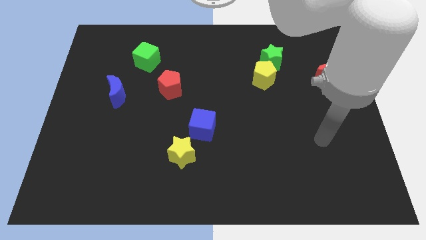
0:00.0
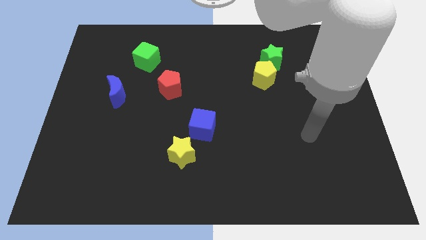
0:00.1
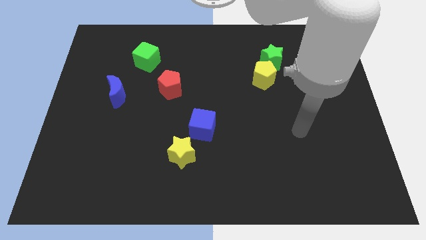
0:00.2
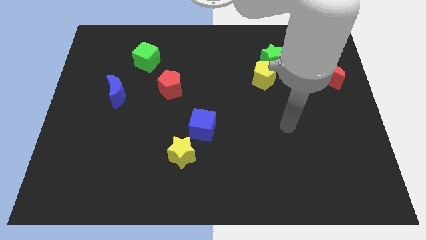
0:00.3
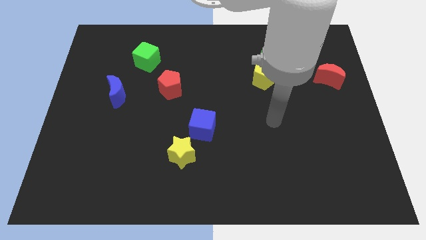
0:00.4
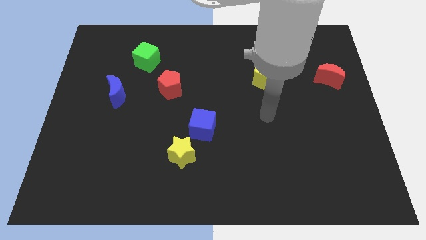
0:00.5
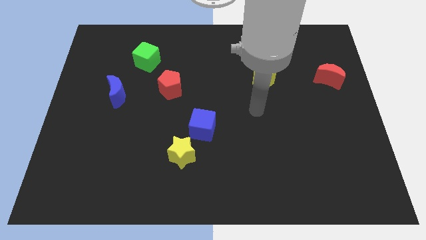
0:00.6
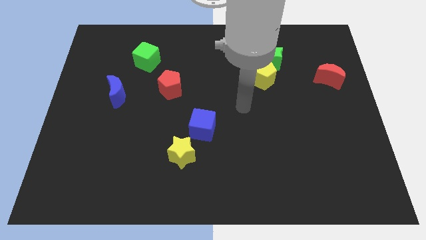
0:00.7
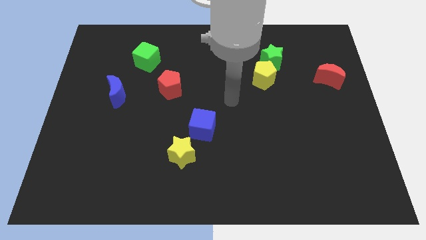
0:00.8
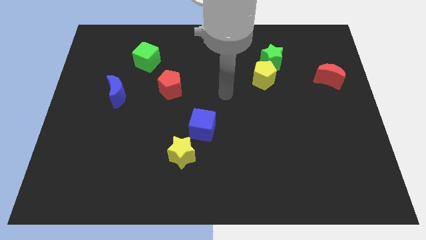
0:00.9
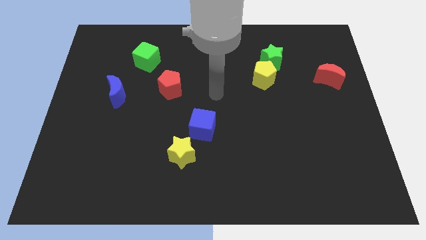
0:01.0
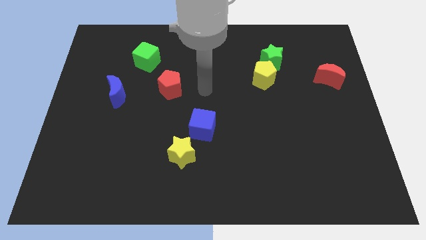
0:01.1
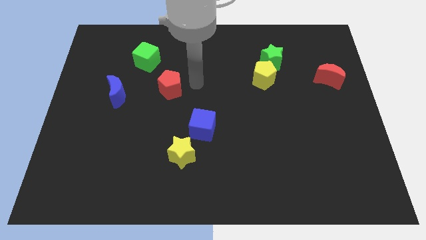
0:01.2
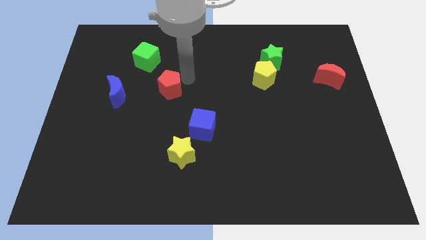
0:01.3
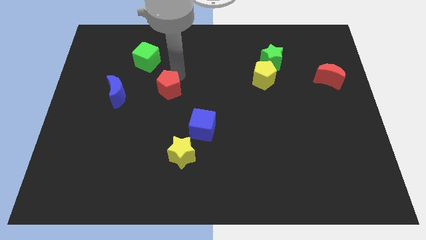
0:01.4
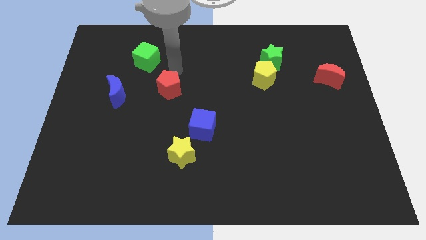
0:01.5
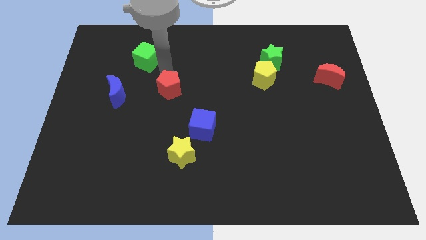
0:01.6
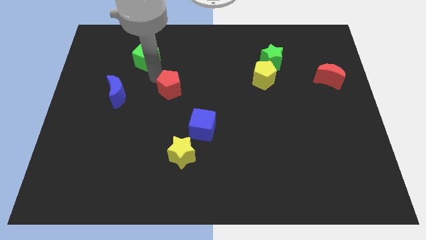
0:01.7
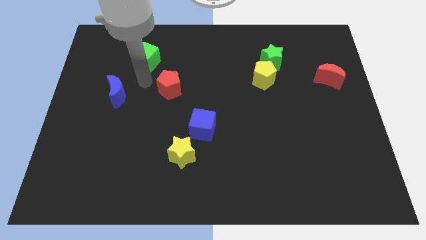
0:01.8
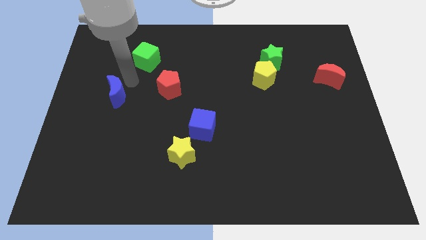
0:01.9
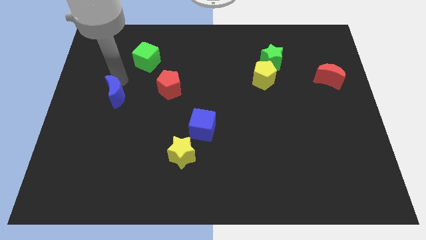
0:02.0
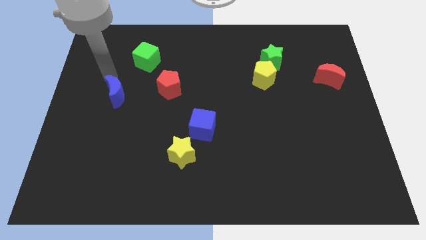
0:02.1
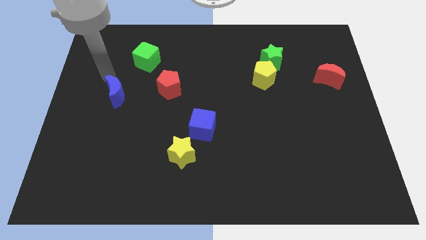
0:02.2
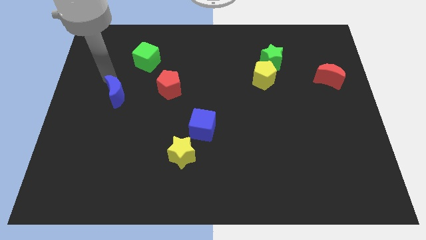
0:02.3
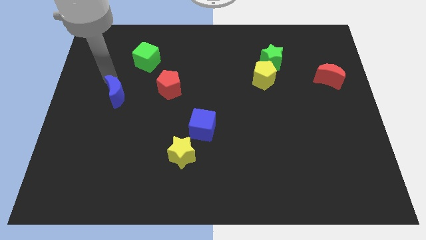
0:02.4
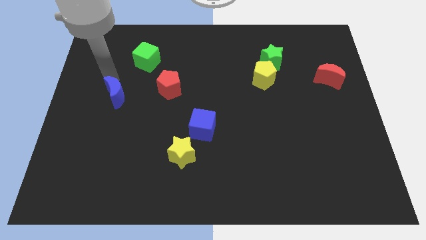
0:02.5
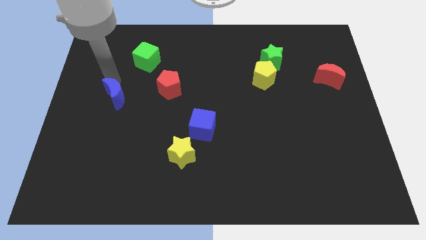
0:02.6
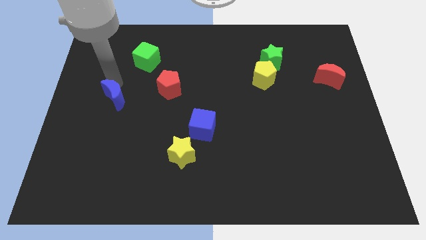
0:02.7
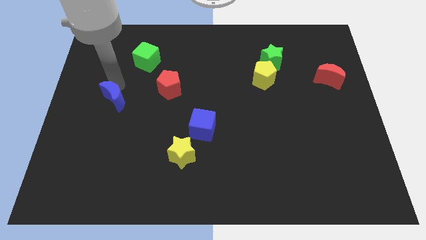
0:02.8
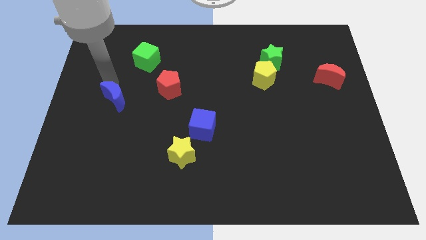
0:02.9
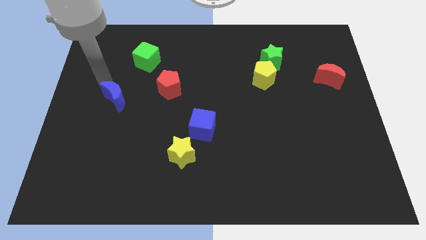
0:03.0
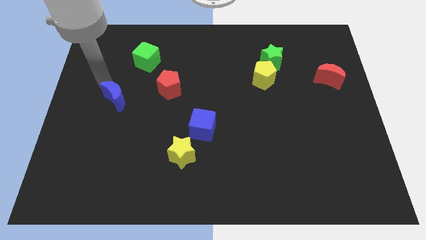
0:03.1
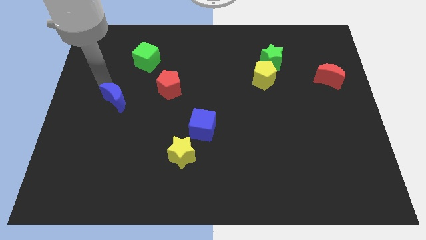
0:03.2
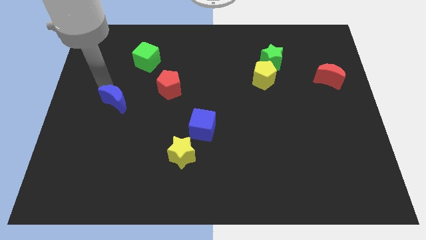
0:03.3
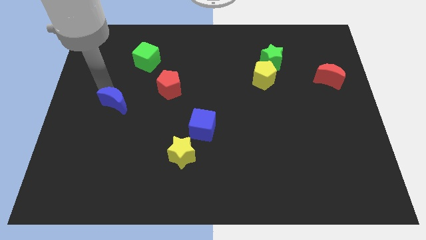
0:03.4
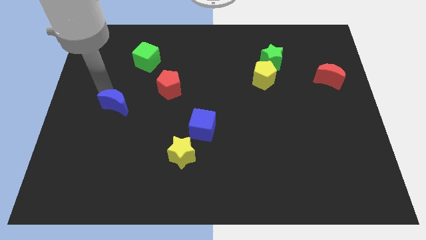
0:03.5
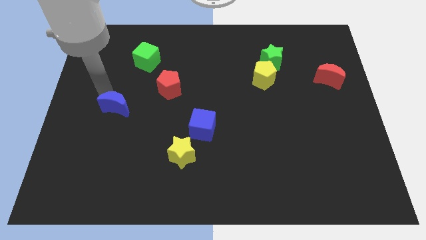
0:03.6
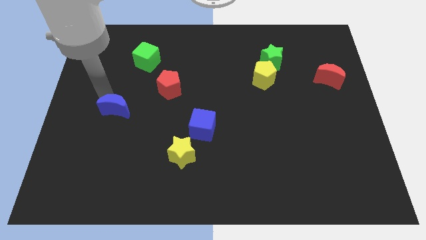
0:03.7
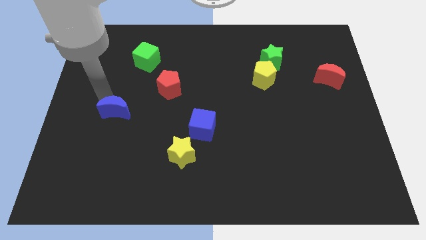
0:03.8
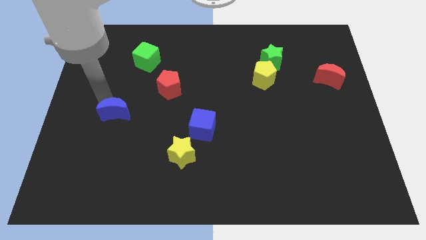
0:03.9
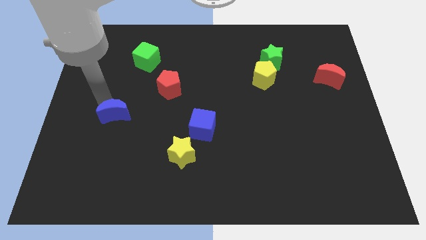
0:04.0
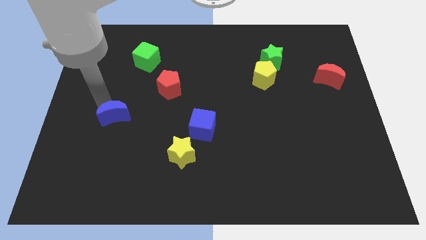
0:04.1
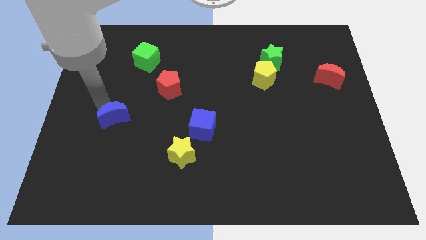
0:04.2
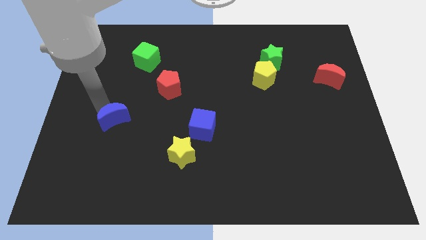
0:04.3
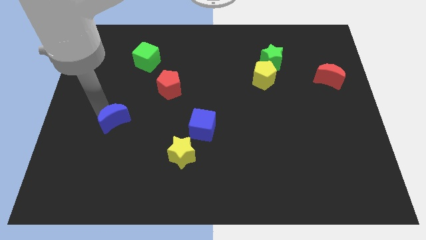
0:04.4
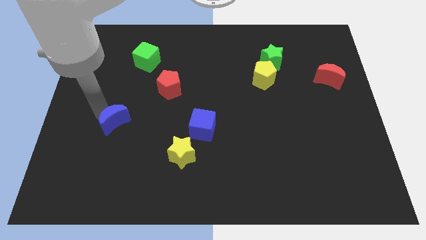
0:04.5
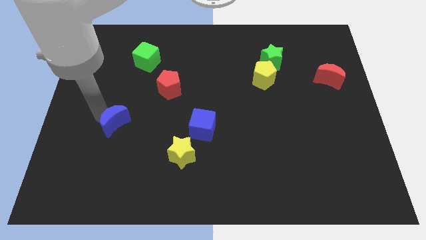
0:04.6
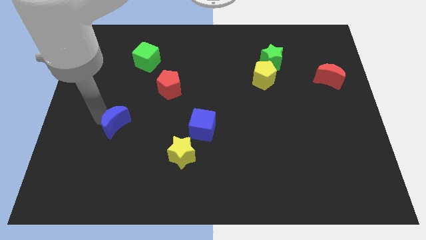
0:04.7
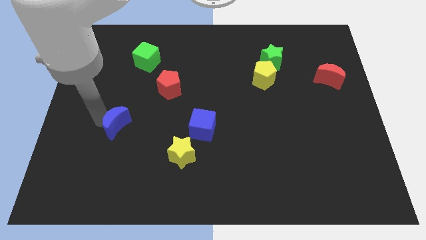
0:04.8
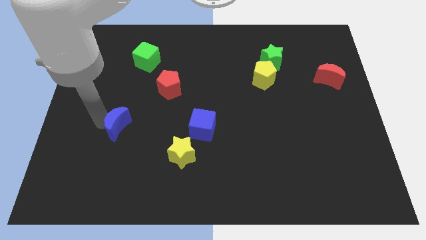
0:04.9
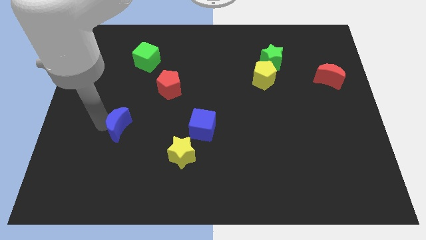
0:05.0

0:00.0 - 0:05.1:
slide the blue moon diagonally down and to the right a bit

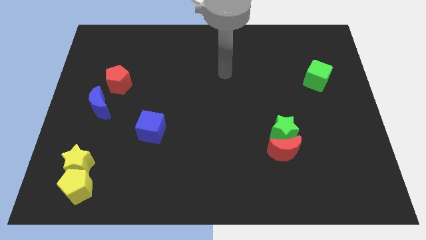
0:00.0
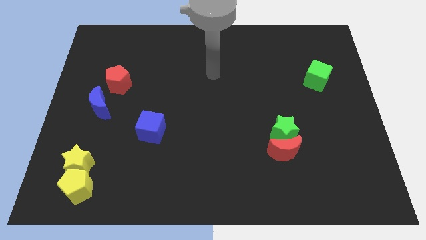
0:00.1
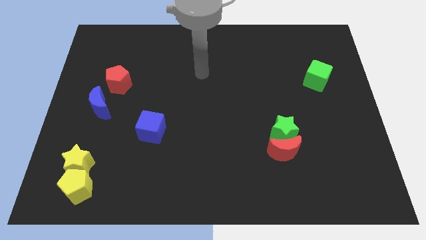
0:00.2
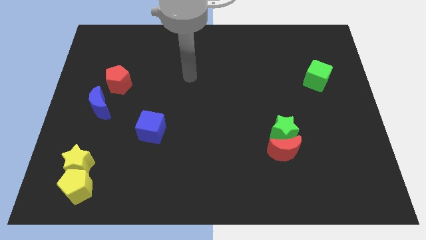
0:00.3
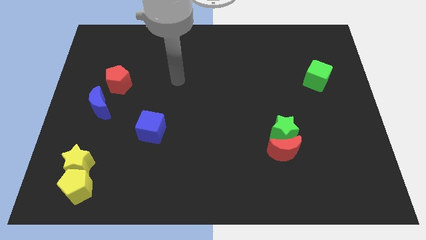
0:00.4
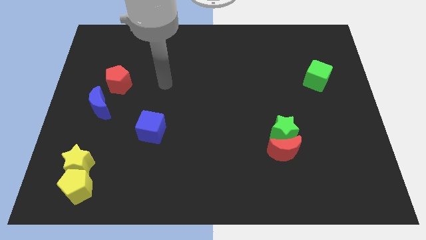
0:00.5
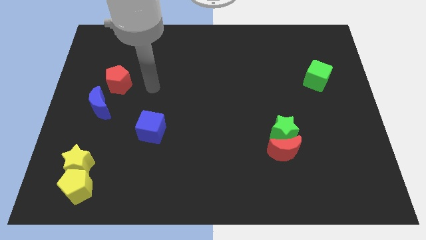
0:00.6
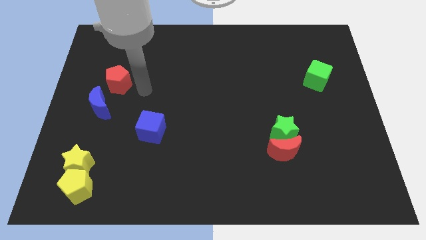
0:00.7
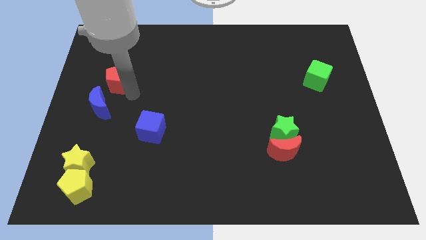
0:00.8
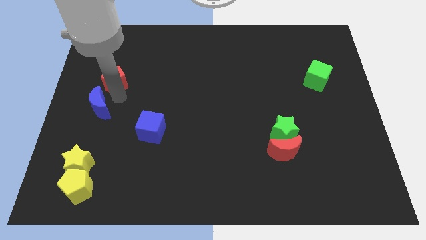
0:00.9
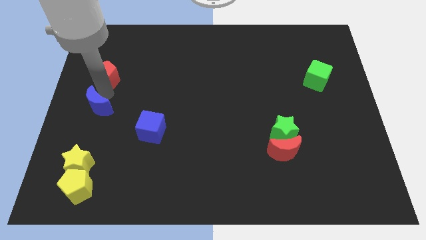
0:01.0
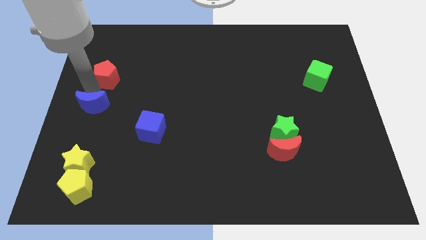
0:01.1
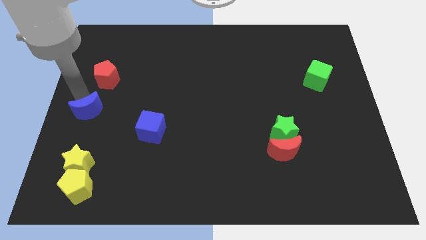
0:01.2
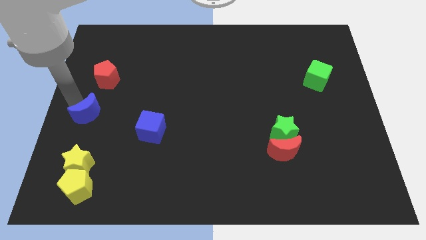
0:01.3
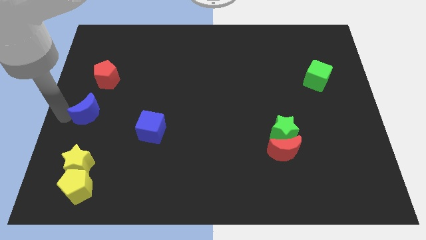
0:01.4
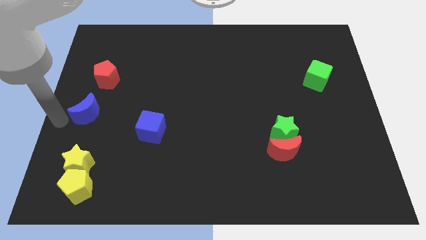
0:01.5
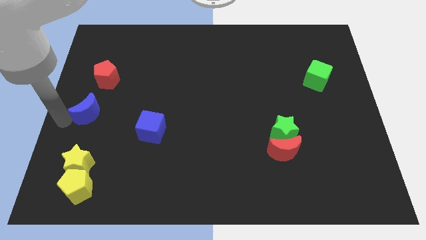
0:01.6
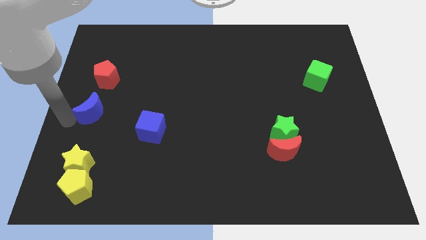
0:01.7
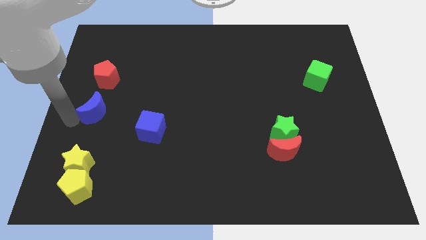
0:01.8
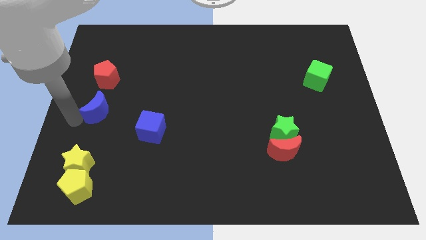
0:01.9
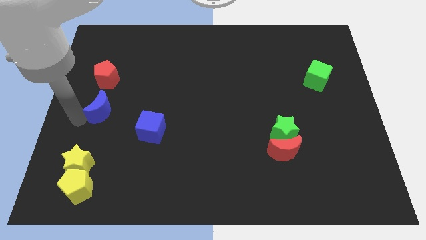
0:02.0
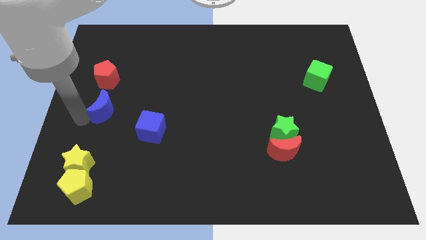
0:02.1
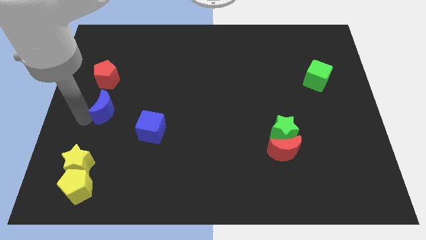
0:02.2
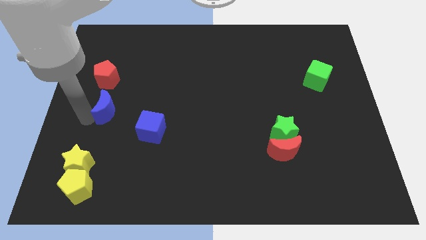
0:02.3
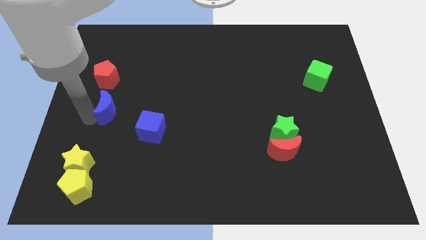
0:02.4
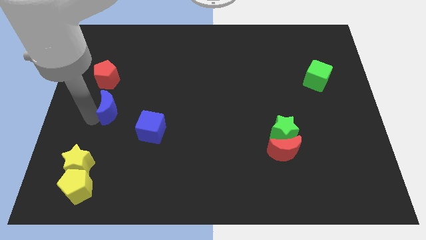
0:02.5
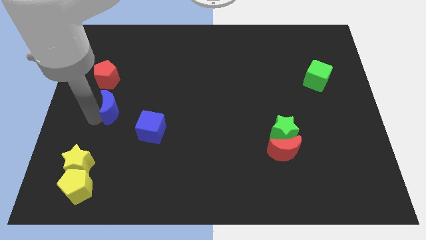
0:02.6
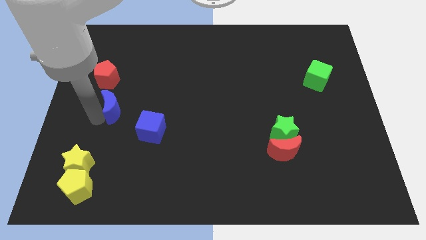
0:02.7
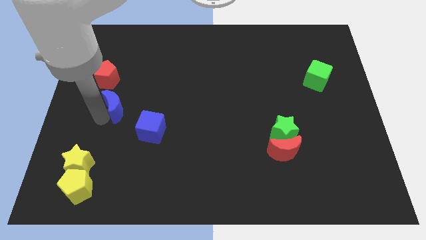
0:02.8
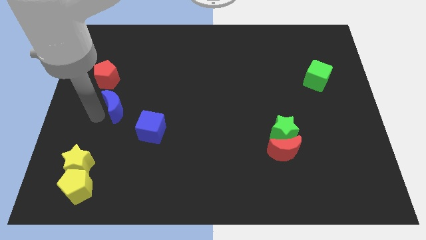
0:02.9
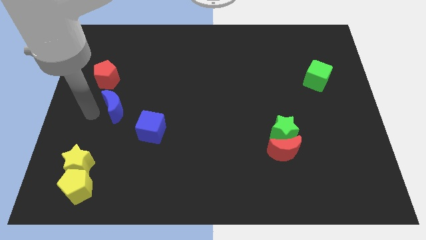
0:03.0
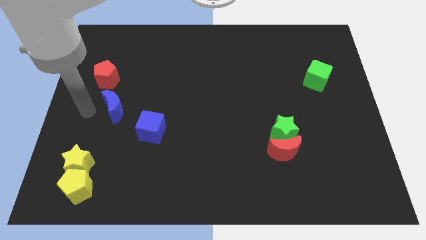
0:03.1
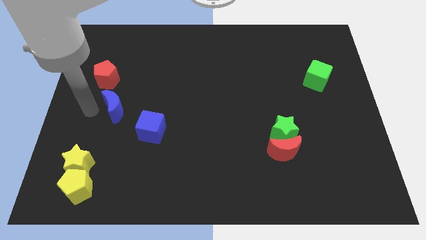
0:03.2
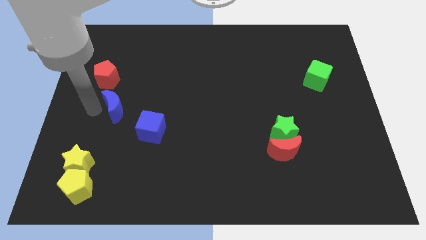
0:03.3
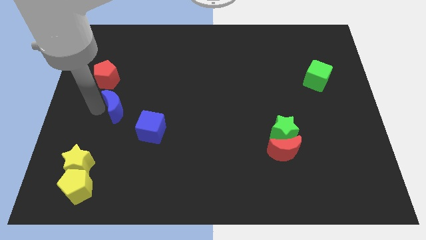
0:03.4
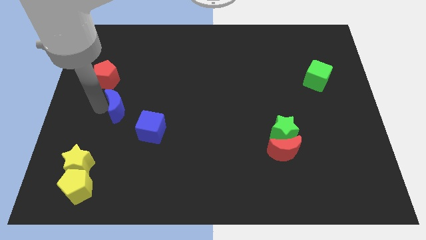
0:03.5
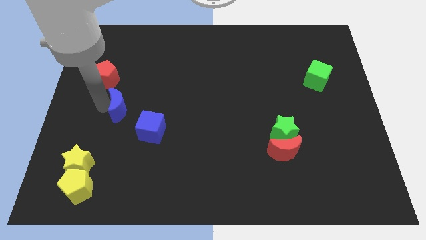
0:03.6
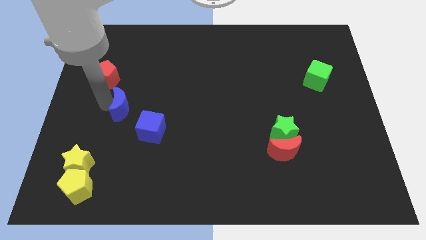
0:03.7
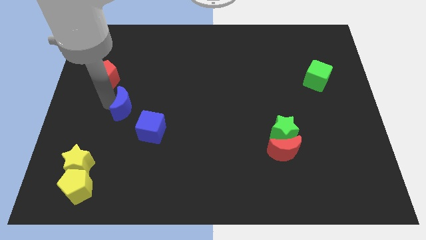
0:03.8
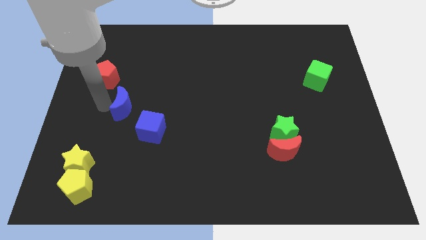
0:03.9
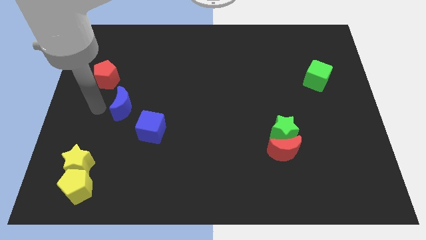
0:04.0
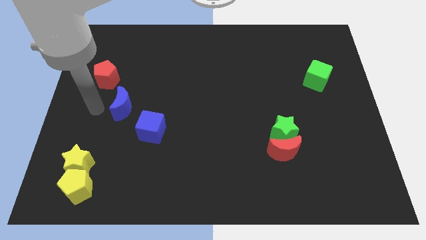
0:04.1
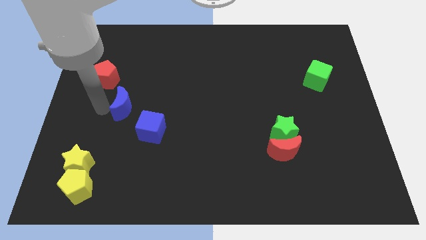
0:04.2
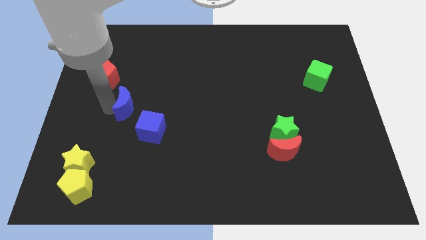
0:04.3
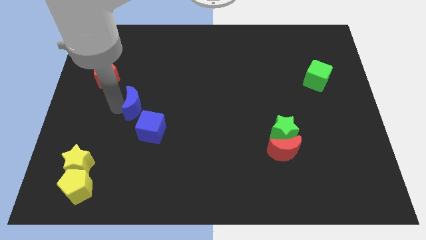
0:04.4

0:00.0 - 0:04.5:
slide the blue moon somewhat to the right
